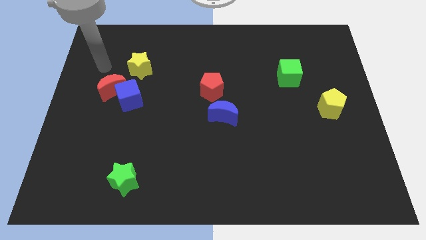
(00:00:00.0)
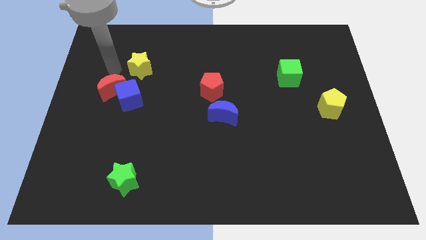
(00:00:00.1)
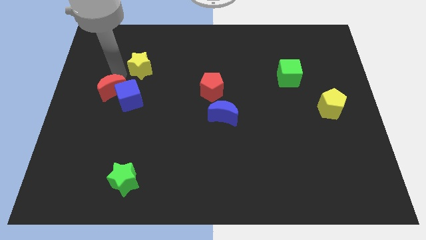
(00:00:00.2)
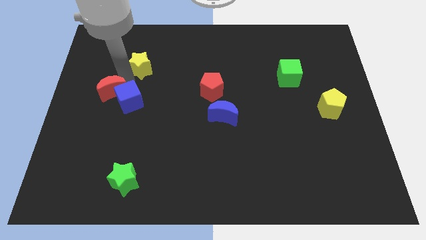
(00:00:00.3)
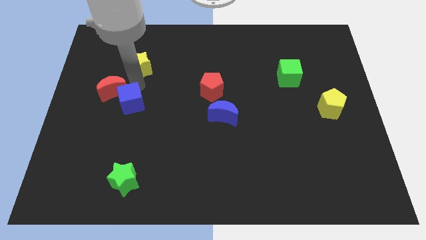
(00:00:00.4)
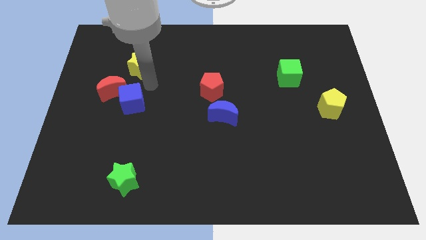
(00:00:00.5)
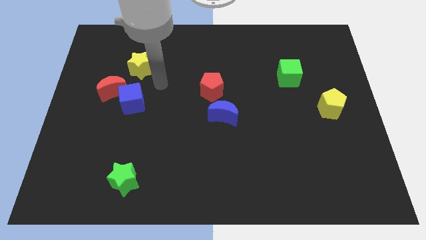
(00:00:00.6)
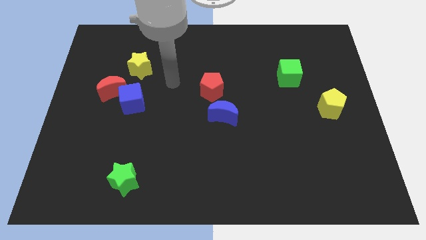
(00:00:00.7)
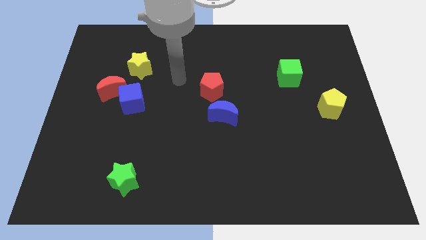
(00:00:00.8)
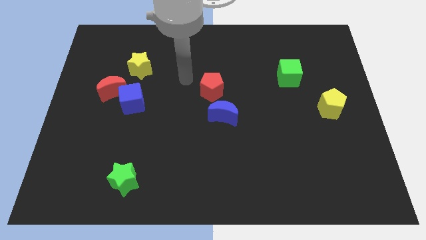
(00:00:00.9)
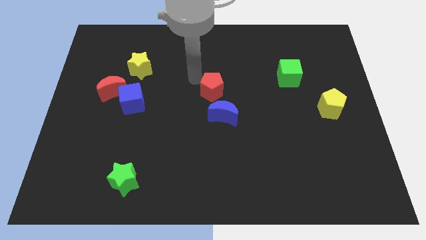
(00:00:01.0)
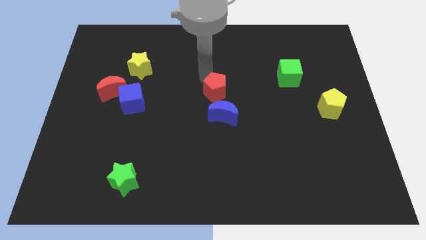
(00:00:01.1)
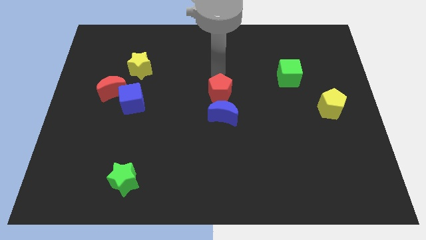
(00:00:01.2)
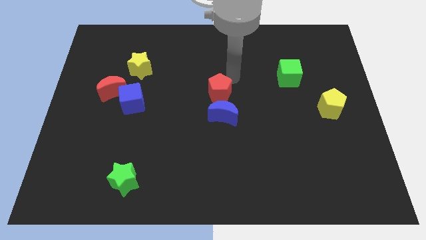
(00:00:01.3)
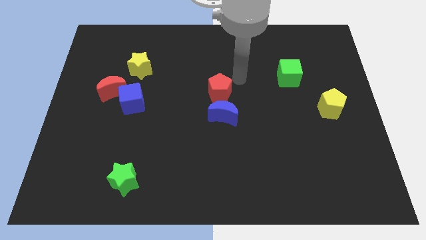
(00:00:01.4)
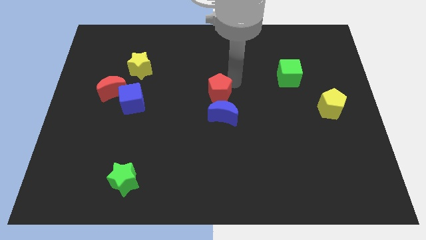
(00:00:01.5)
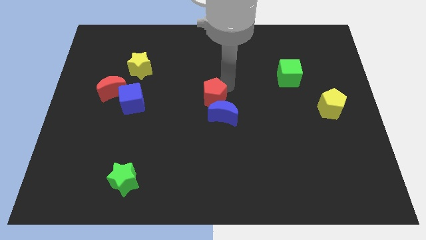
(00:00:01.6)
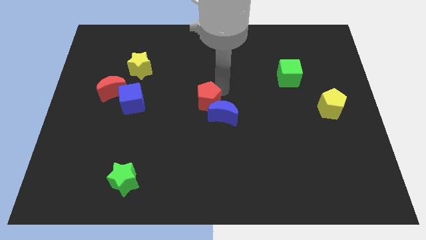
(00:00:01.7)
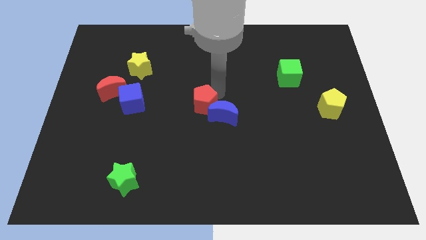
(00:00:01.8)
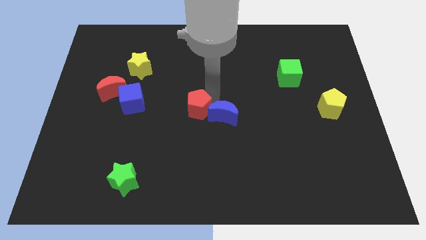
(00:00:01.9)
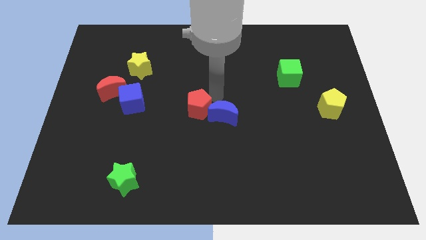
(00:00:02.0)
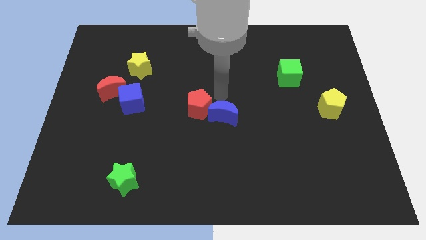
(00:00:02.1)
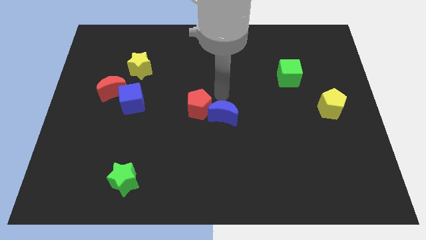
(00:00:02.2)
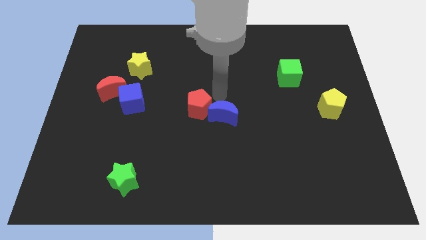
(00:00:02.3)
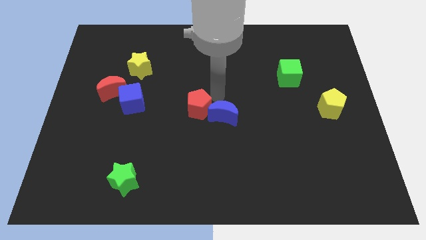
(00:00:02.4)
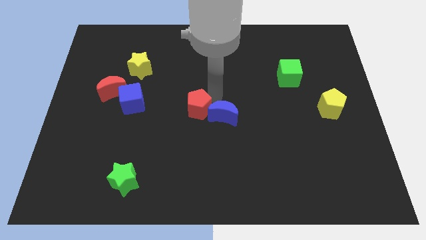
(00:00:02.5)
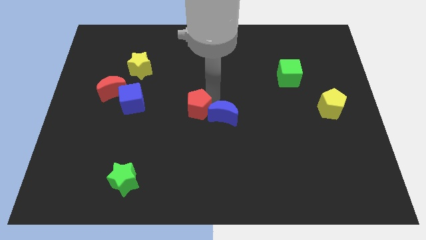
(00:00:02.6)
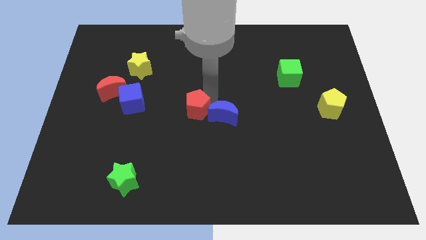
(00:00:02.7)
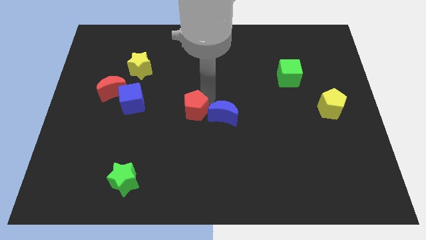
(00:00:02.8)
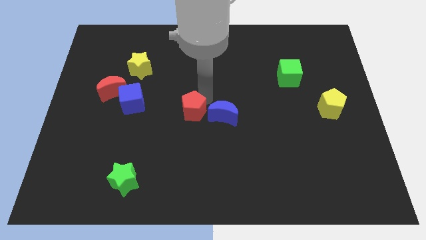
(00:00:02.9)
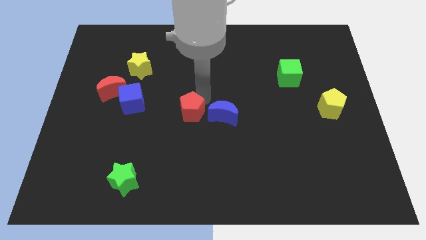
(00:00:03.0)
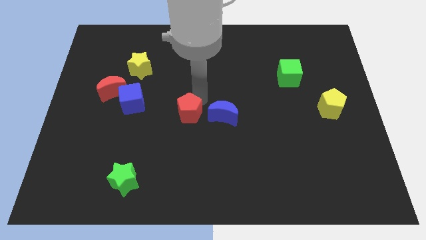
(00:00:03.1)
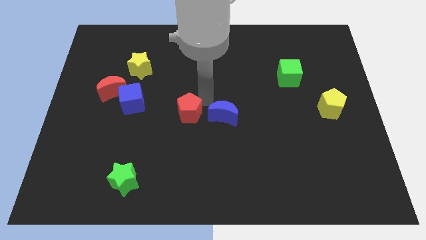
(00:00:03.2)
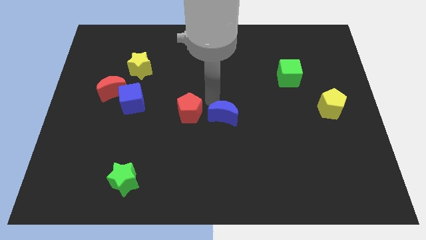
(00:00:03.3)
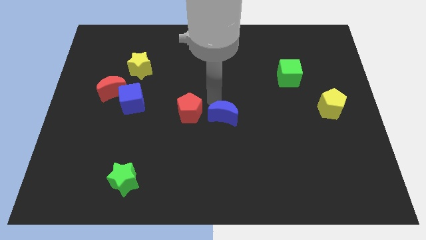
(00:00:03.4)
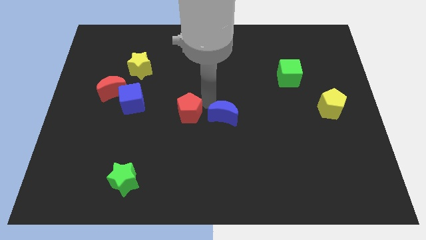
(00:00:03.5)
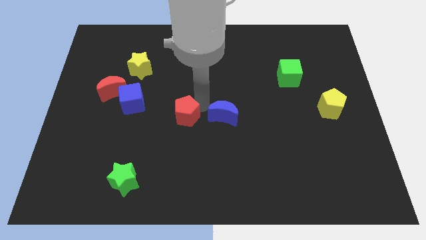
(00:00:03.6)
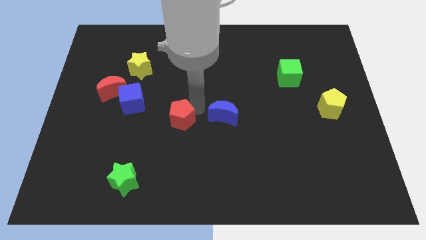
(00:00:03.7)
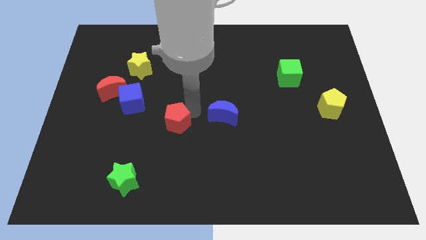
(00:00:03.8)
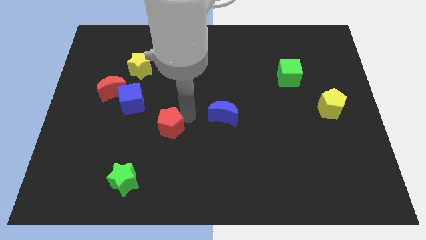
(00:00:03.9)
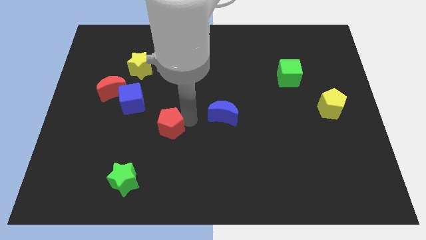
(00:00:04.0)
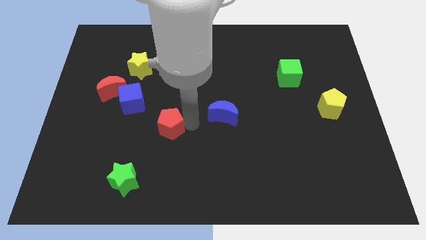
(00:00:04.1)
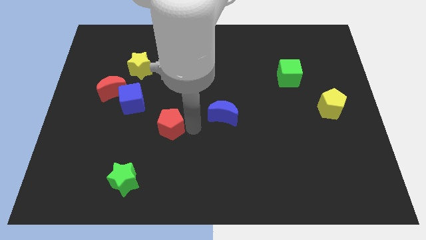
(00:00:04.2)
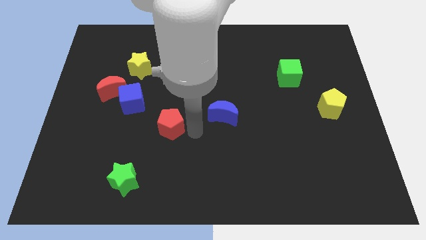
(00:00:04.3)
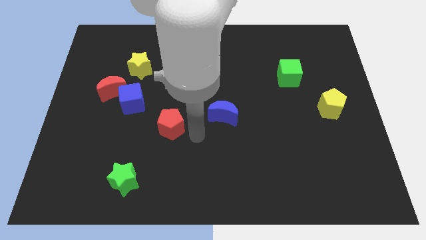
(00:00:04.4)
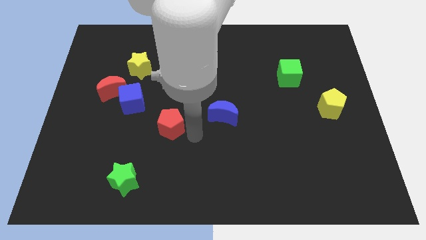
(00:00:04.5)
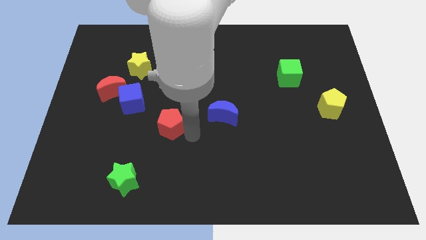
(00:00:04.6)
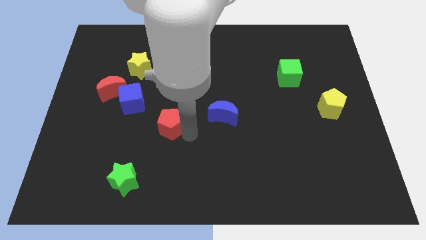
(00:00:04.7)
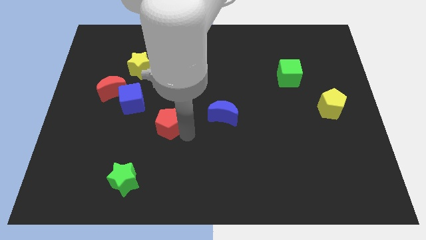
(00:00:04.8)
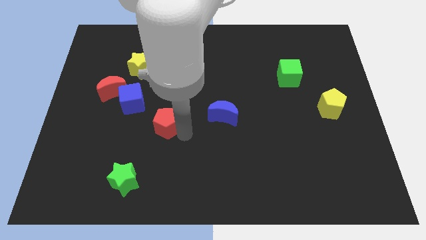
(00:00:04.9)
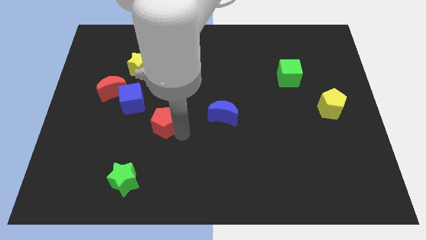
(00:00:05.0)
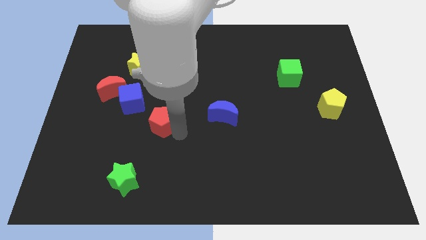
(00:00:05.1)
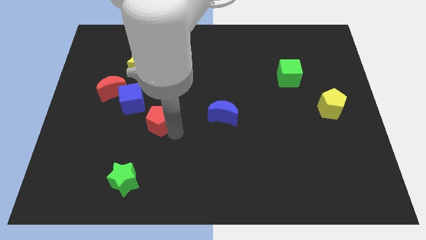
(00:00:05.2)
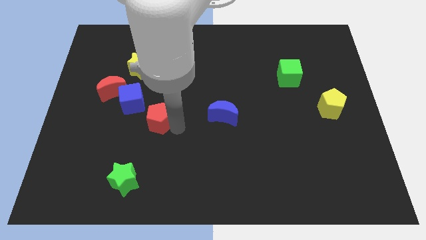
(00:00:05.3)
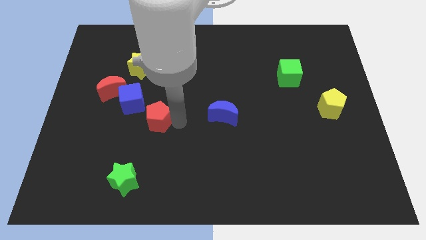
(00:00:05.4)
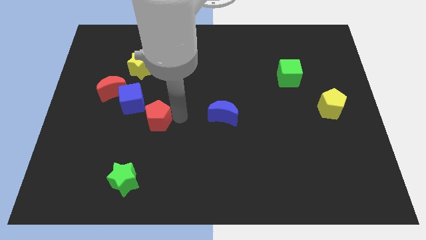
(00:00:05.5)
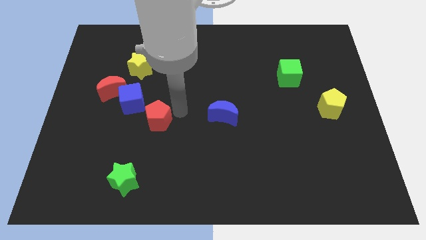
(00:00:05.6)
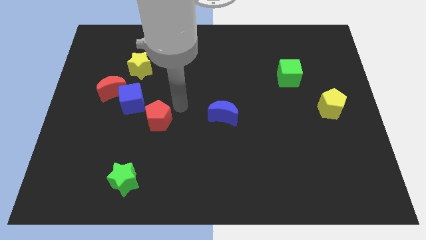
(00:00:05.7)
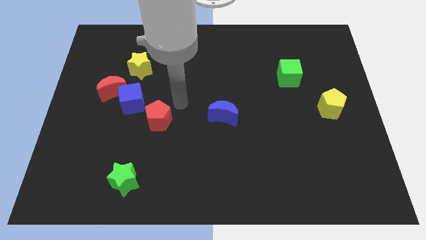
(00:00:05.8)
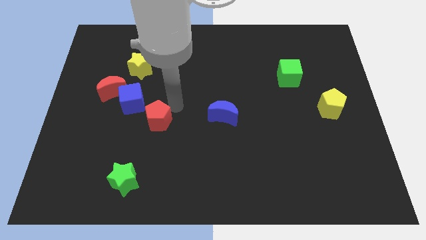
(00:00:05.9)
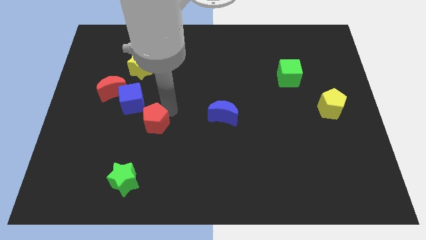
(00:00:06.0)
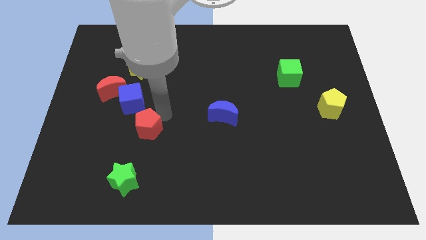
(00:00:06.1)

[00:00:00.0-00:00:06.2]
put the red pentagon to the top side of the green star

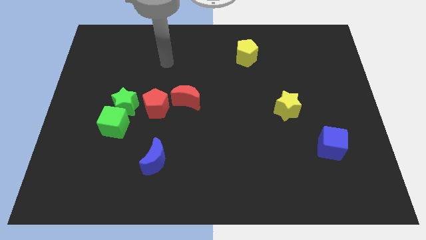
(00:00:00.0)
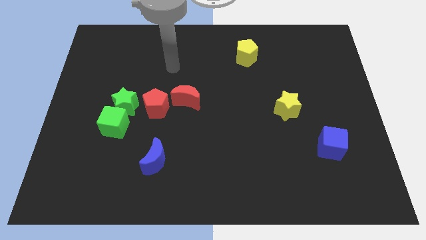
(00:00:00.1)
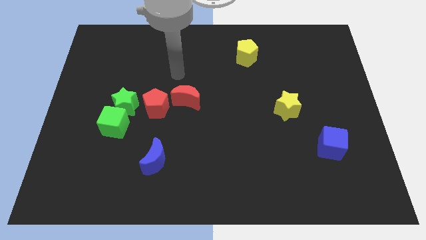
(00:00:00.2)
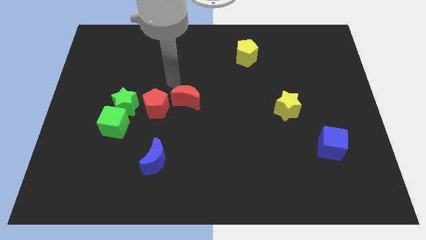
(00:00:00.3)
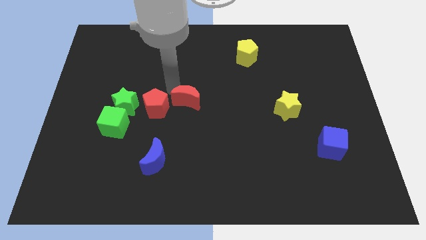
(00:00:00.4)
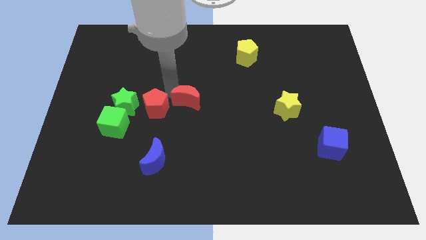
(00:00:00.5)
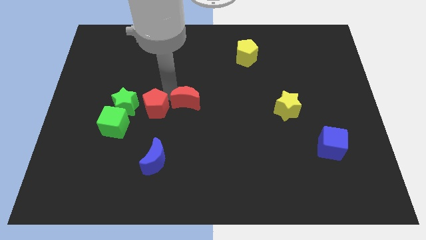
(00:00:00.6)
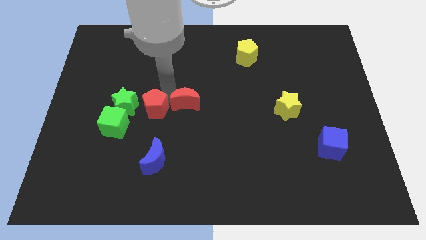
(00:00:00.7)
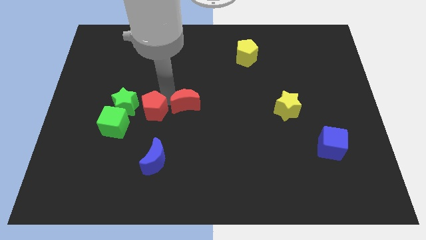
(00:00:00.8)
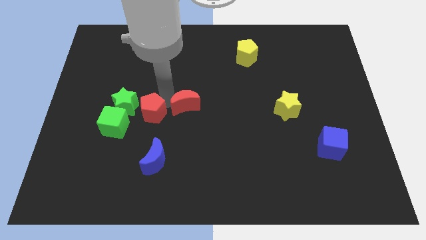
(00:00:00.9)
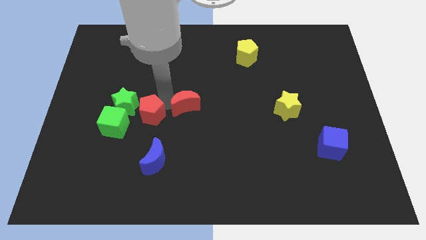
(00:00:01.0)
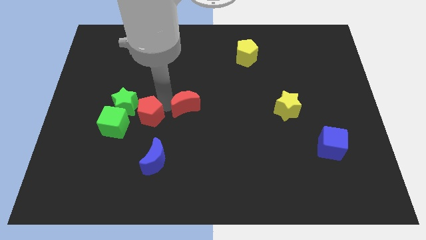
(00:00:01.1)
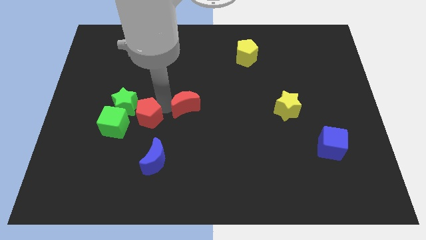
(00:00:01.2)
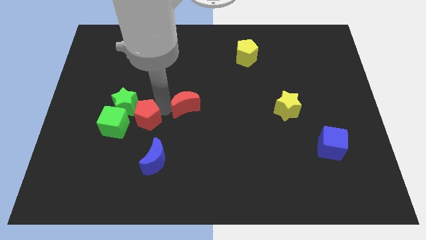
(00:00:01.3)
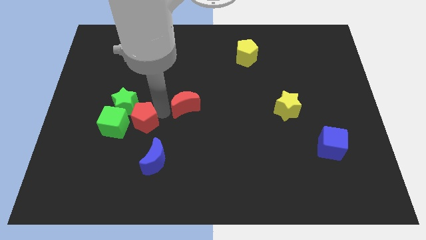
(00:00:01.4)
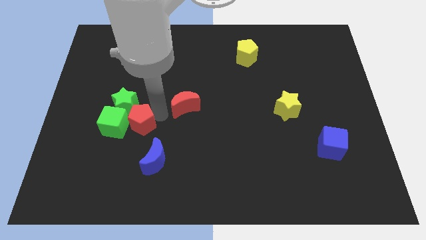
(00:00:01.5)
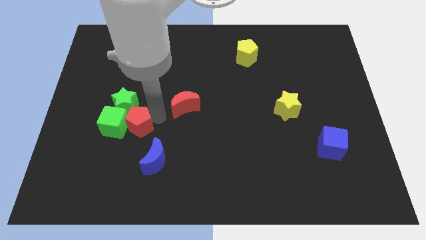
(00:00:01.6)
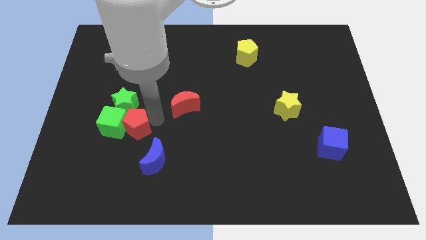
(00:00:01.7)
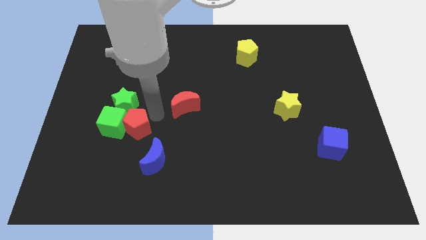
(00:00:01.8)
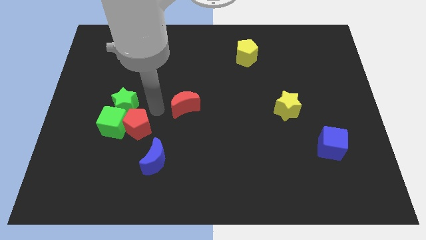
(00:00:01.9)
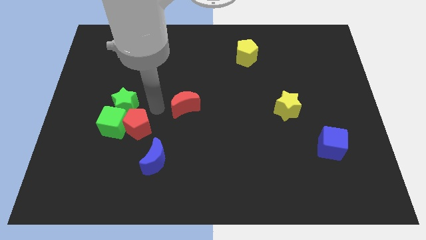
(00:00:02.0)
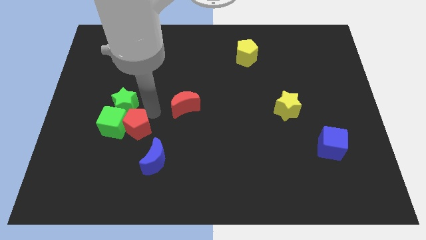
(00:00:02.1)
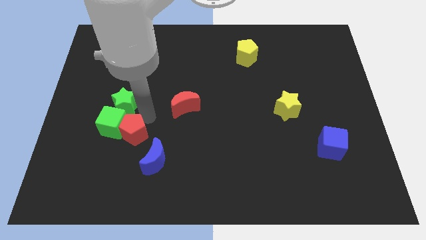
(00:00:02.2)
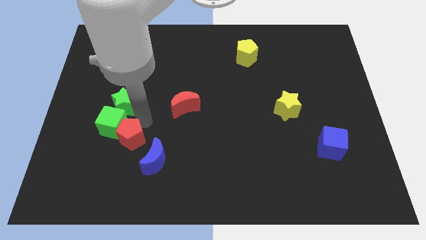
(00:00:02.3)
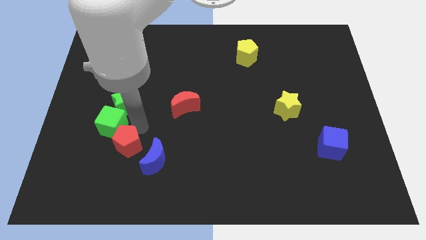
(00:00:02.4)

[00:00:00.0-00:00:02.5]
push the red pentagon to the left side of the blue moon
